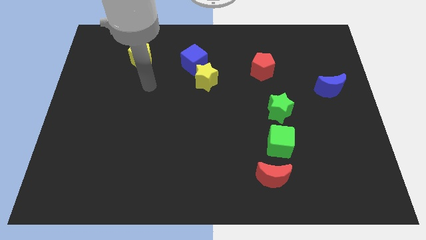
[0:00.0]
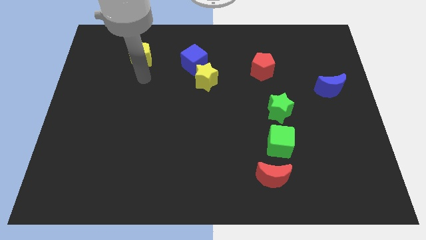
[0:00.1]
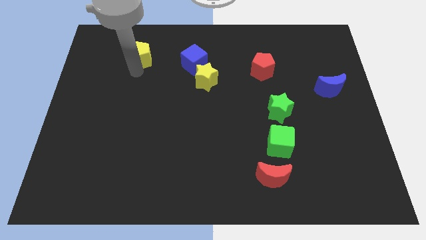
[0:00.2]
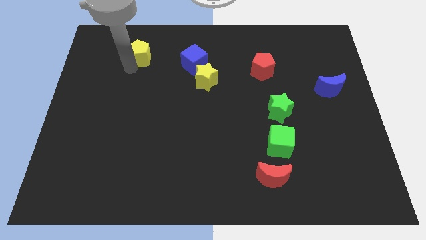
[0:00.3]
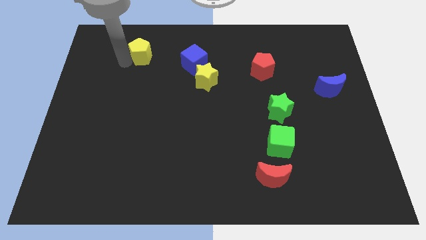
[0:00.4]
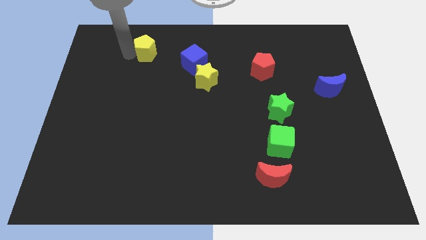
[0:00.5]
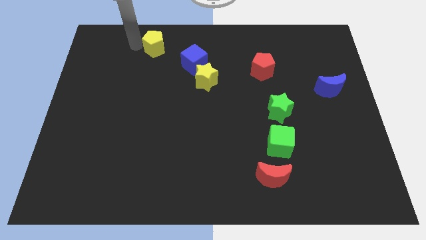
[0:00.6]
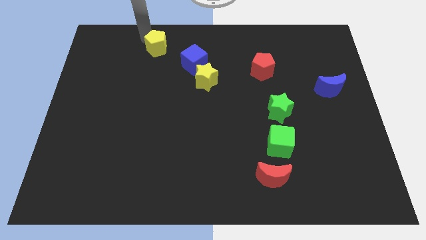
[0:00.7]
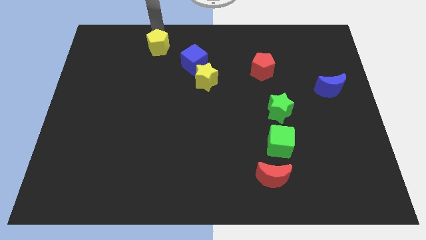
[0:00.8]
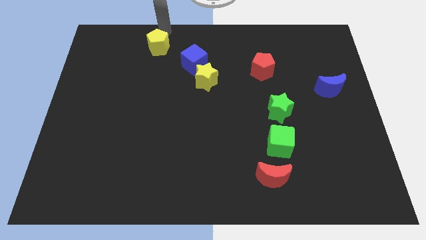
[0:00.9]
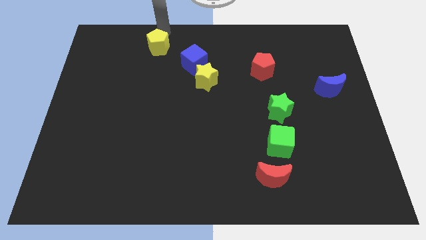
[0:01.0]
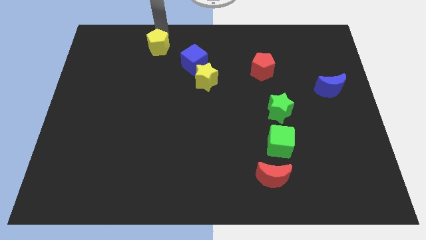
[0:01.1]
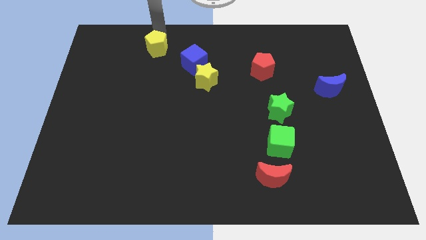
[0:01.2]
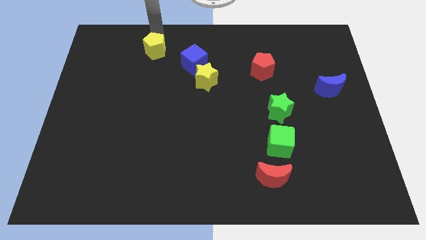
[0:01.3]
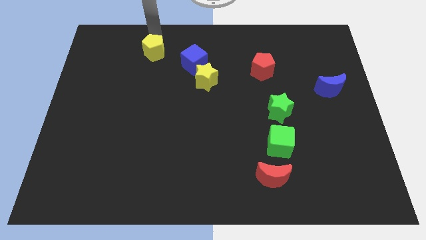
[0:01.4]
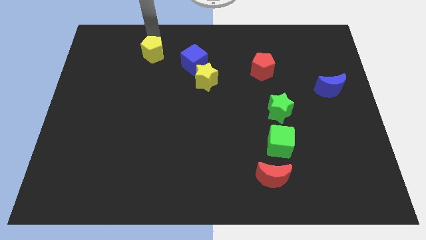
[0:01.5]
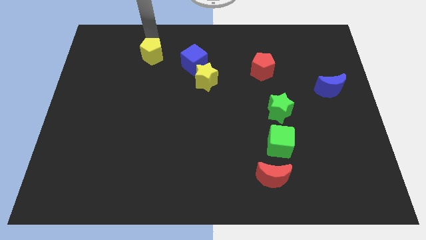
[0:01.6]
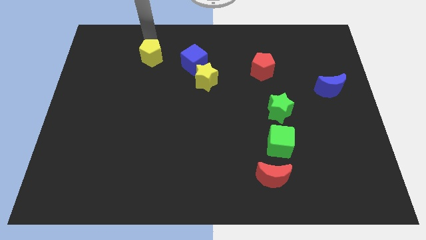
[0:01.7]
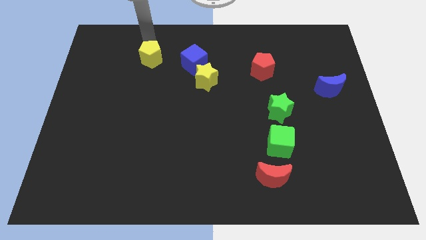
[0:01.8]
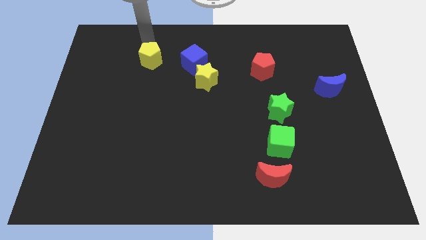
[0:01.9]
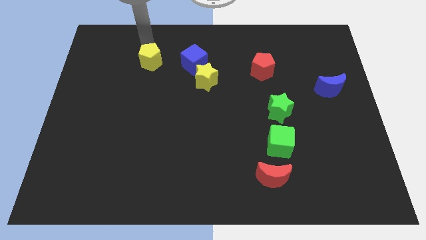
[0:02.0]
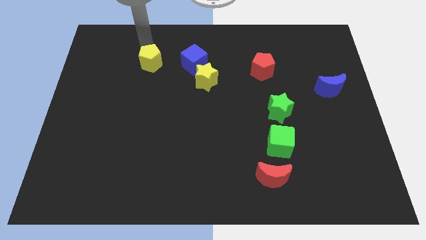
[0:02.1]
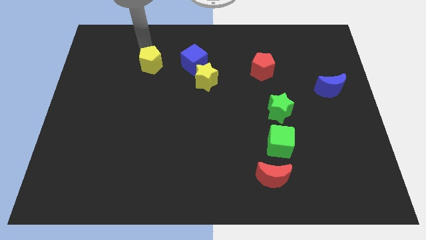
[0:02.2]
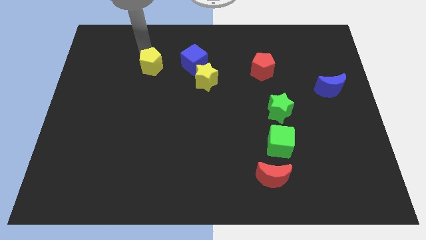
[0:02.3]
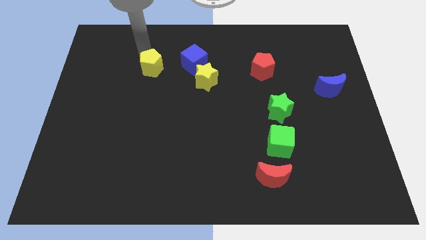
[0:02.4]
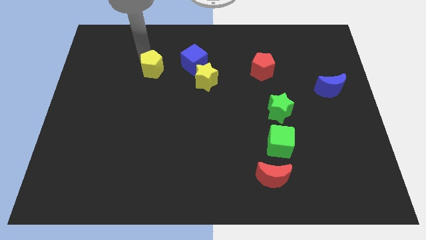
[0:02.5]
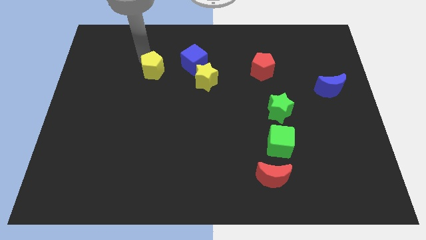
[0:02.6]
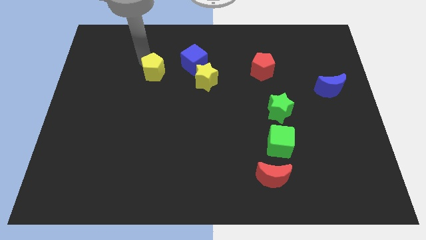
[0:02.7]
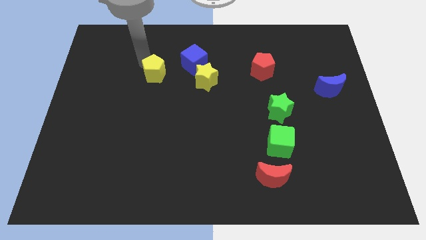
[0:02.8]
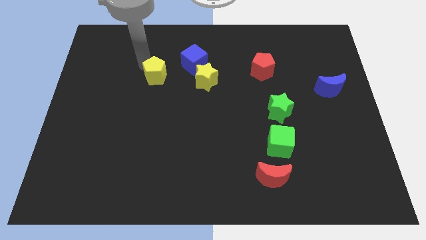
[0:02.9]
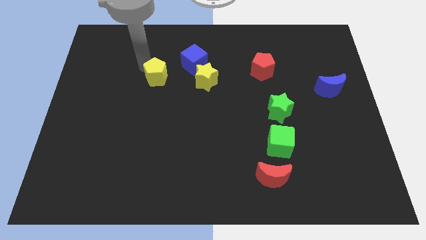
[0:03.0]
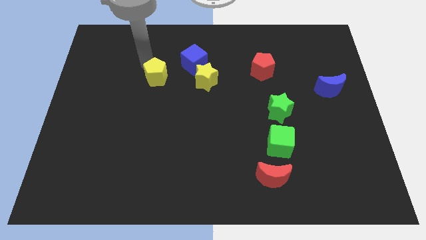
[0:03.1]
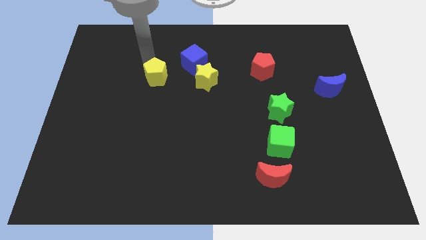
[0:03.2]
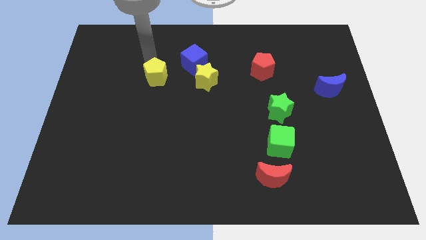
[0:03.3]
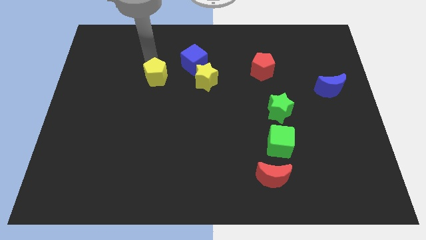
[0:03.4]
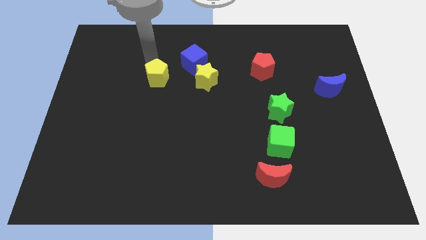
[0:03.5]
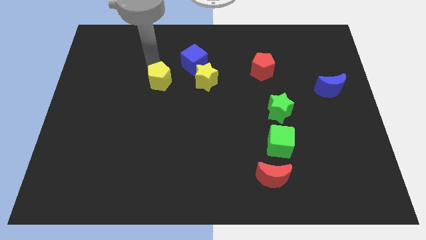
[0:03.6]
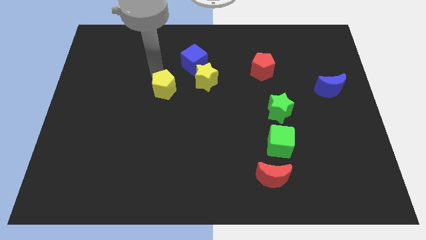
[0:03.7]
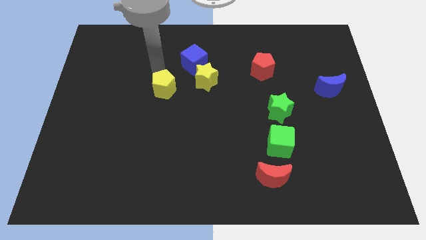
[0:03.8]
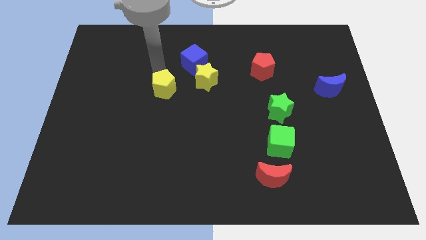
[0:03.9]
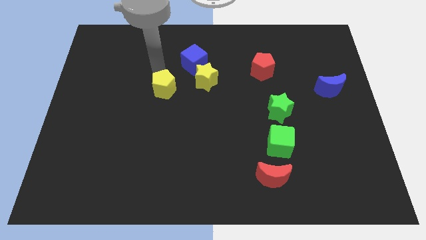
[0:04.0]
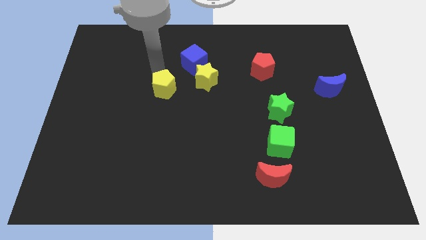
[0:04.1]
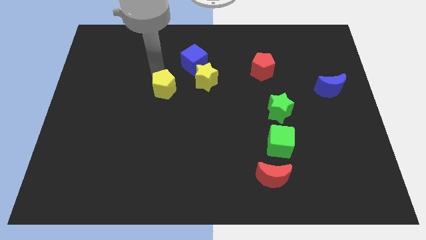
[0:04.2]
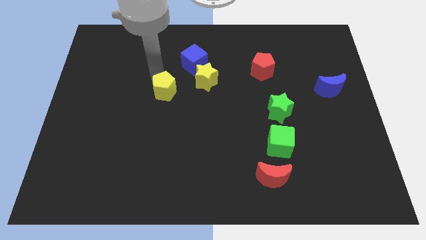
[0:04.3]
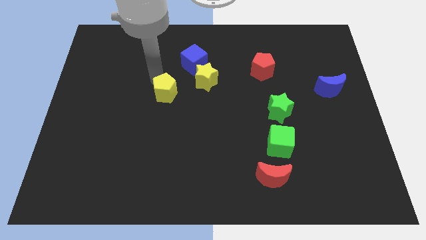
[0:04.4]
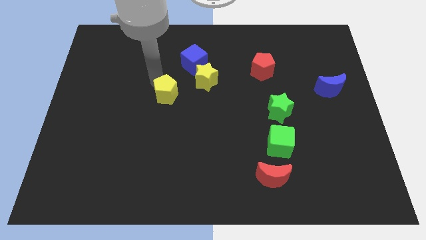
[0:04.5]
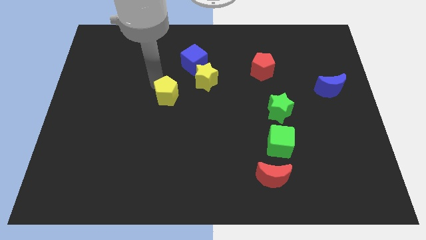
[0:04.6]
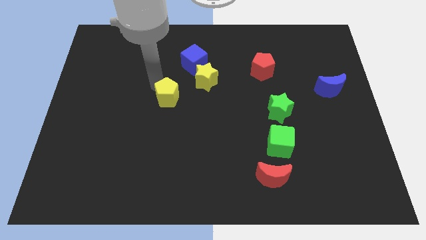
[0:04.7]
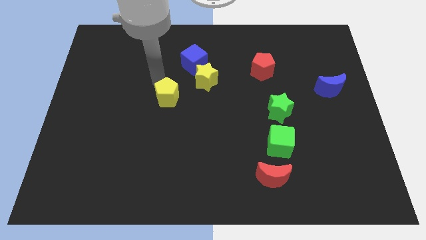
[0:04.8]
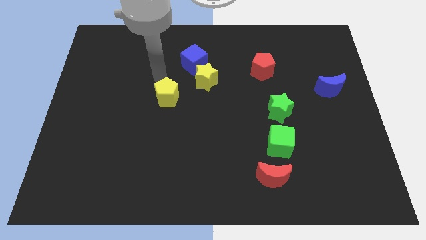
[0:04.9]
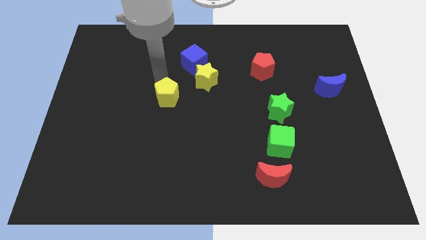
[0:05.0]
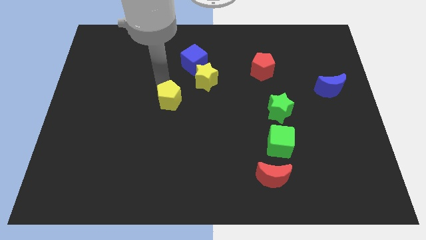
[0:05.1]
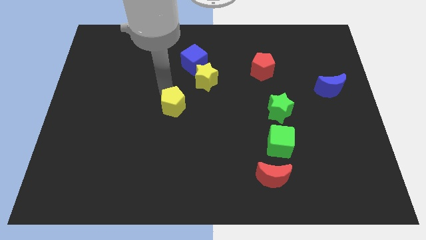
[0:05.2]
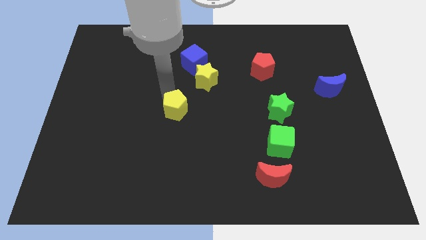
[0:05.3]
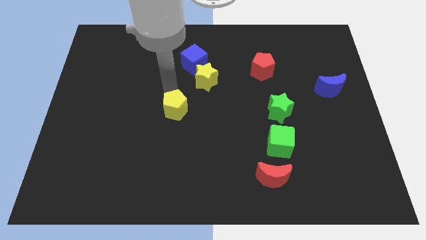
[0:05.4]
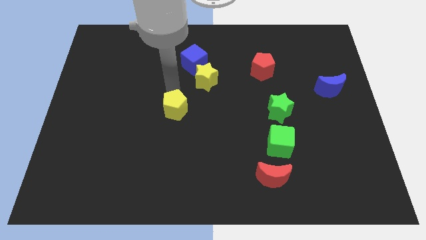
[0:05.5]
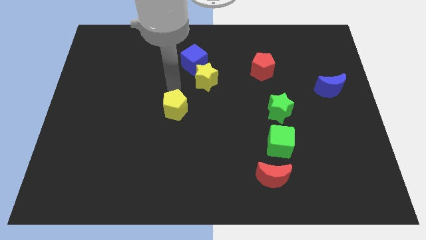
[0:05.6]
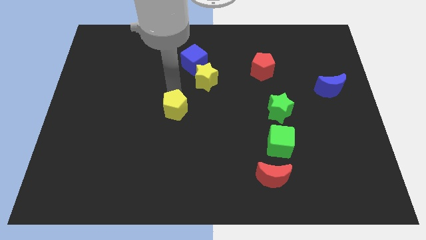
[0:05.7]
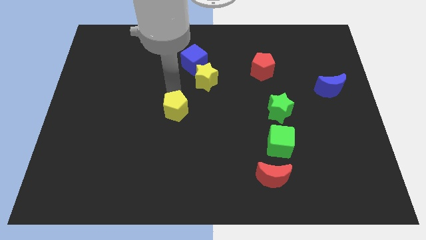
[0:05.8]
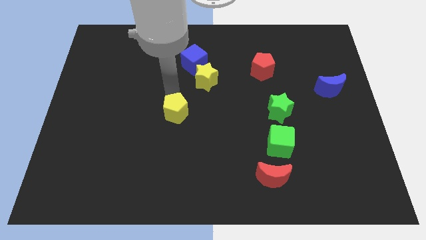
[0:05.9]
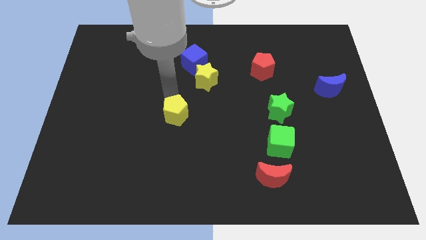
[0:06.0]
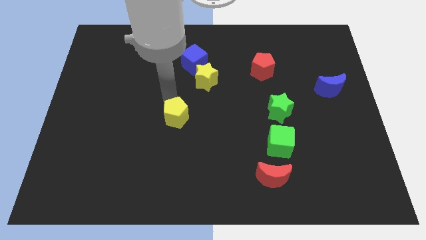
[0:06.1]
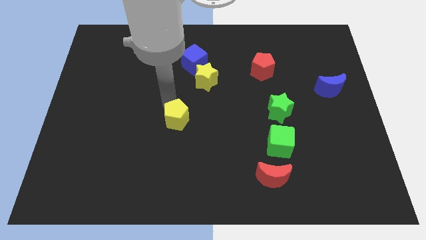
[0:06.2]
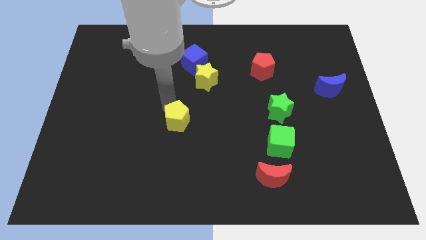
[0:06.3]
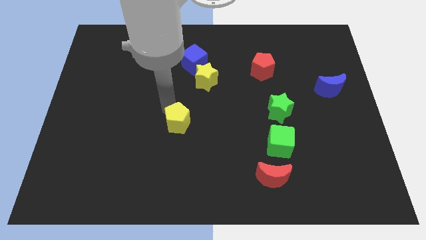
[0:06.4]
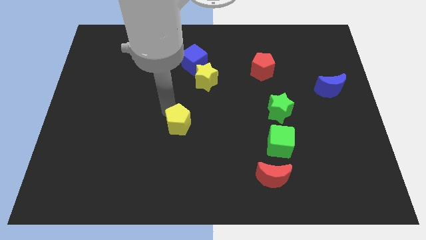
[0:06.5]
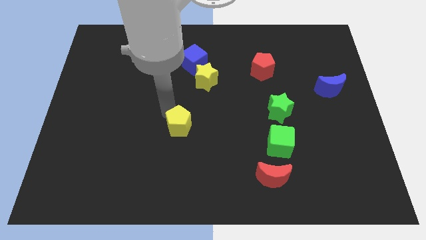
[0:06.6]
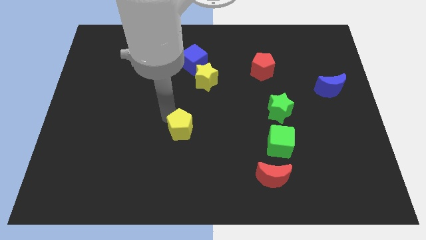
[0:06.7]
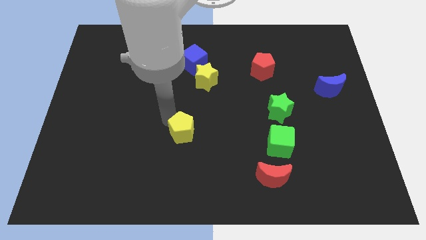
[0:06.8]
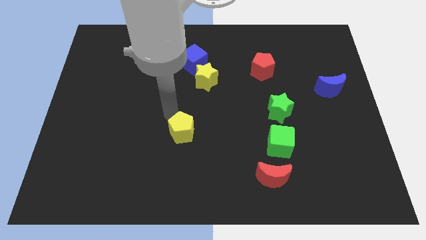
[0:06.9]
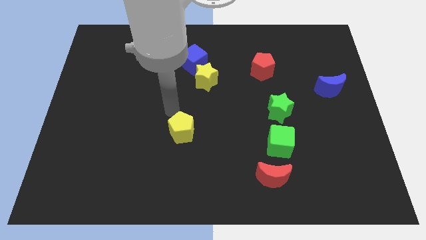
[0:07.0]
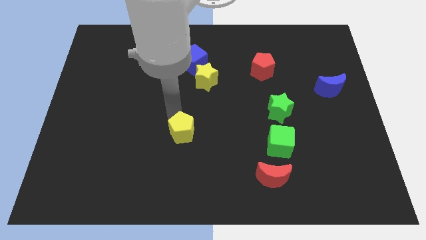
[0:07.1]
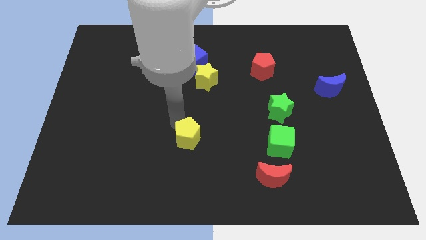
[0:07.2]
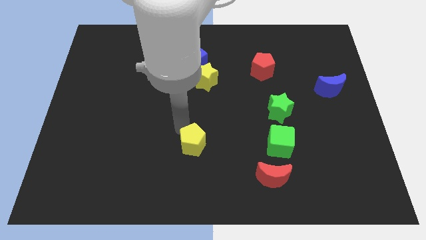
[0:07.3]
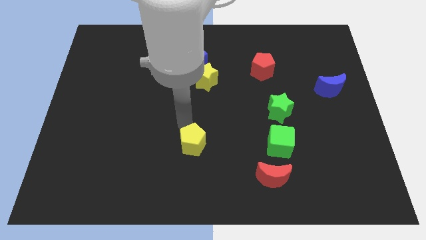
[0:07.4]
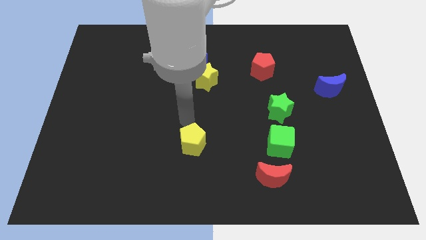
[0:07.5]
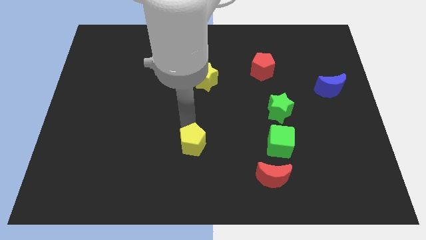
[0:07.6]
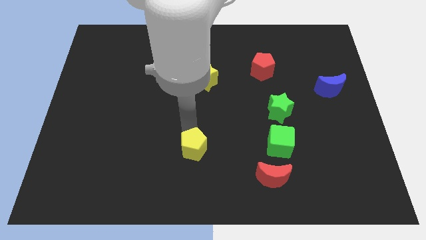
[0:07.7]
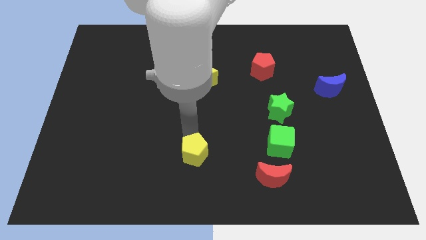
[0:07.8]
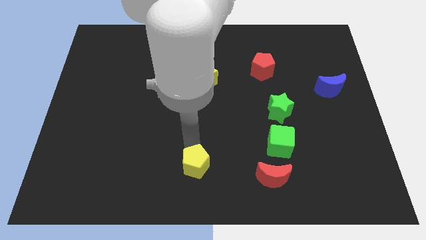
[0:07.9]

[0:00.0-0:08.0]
put the yellow pentagon to the bottom
